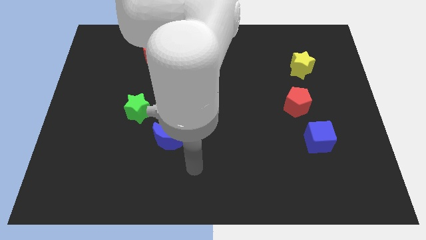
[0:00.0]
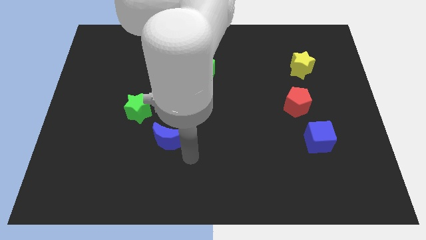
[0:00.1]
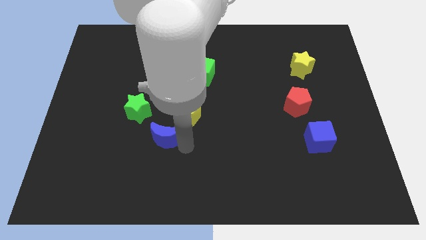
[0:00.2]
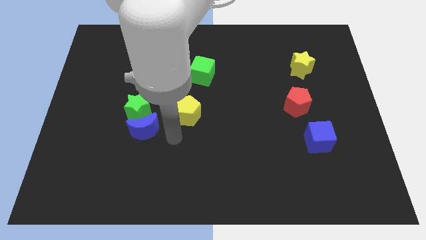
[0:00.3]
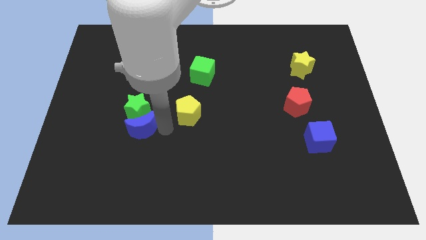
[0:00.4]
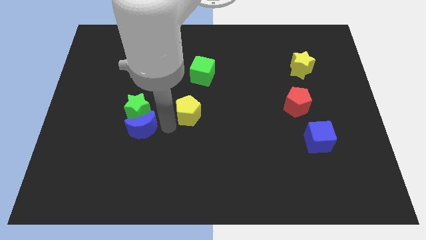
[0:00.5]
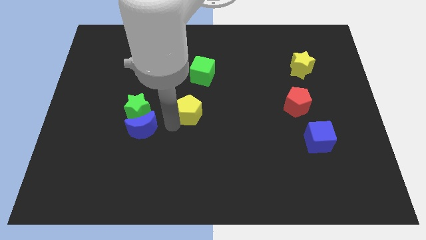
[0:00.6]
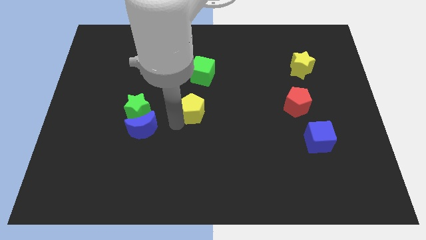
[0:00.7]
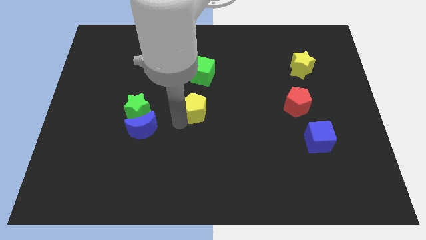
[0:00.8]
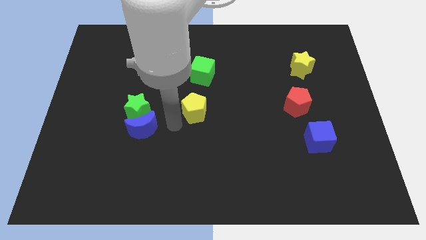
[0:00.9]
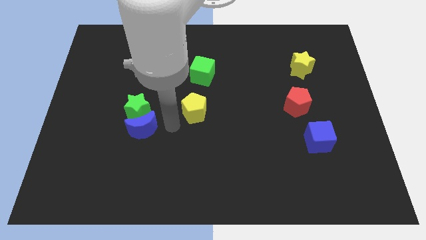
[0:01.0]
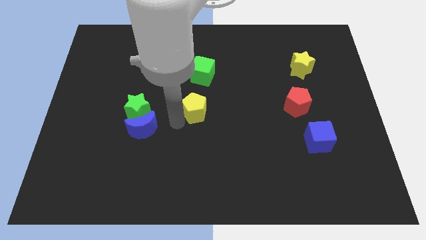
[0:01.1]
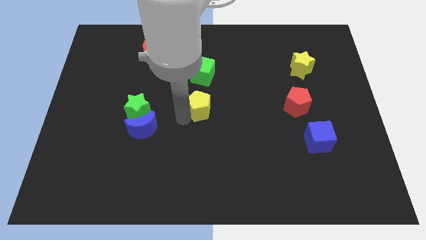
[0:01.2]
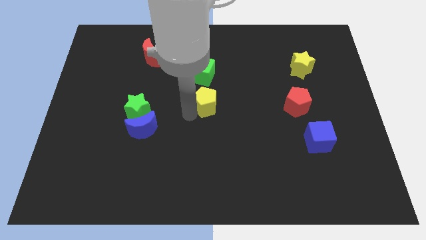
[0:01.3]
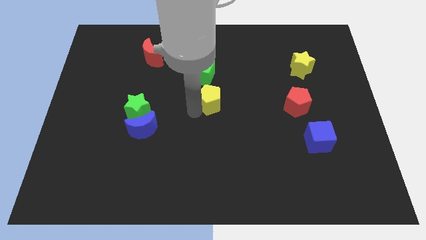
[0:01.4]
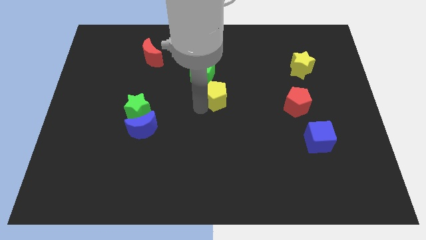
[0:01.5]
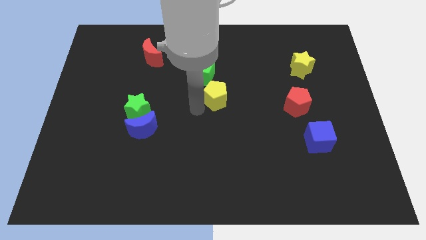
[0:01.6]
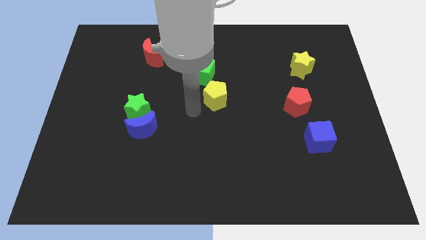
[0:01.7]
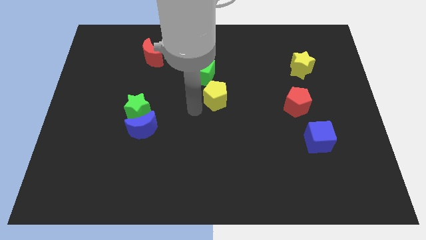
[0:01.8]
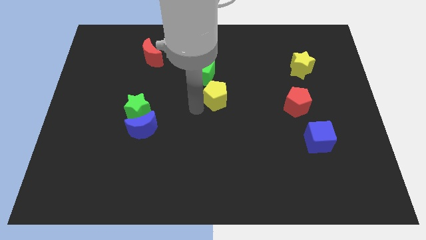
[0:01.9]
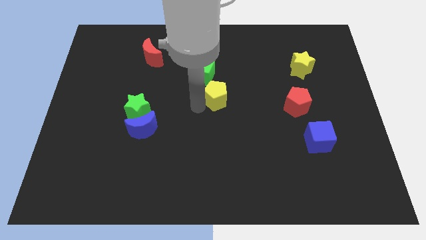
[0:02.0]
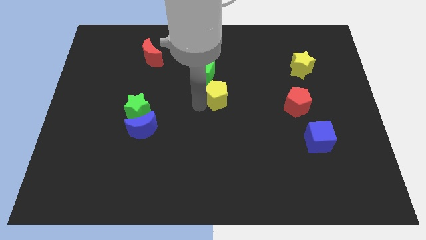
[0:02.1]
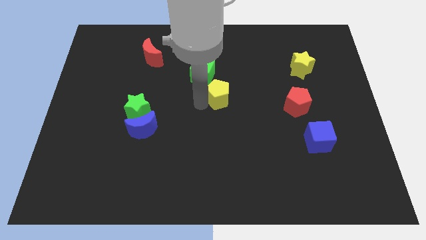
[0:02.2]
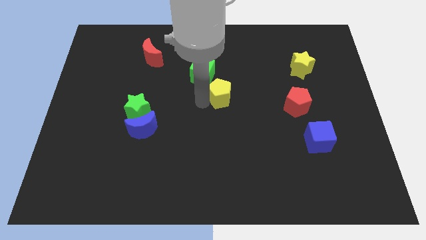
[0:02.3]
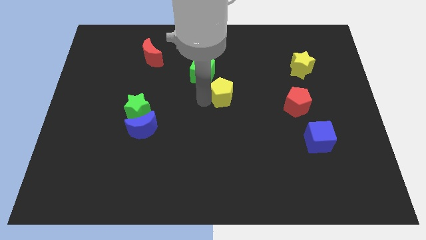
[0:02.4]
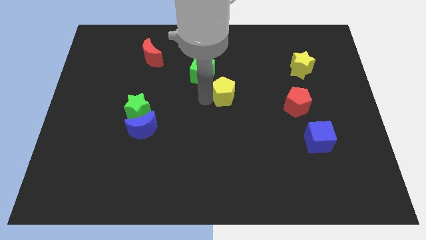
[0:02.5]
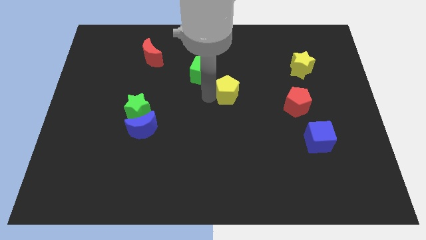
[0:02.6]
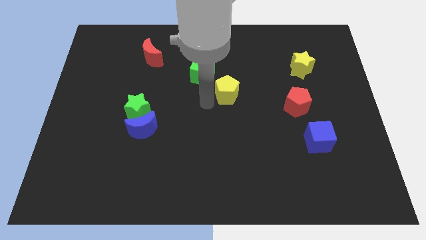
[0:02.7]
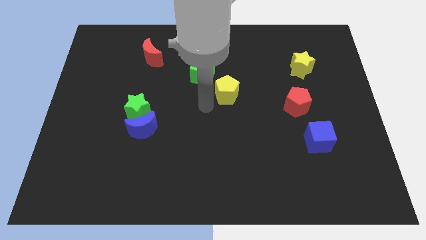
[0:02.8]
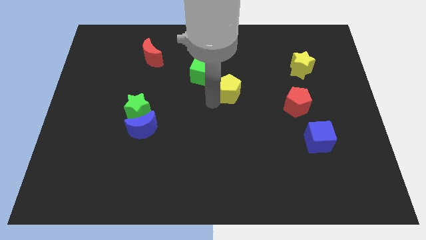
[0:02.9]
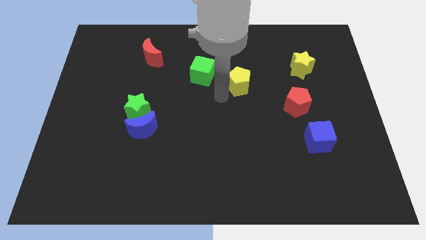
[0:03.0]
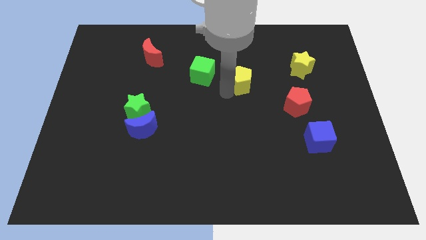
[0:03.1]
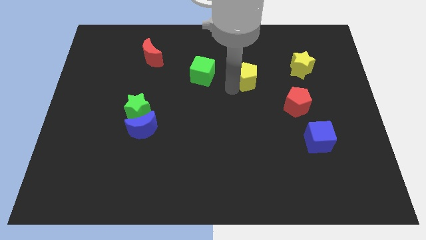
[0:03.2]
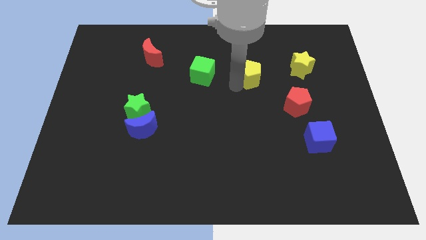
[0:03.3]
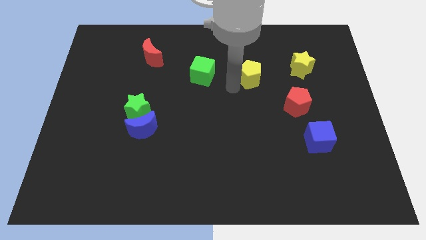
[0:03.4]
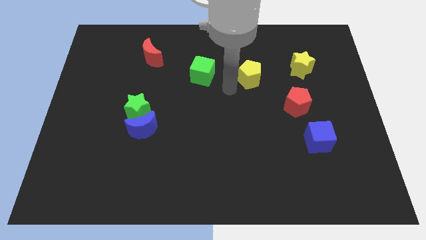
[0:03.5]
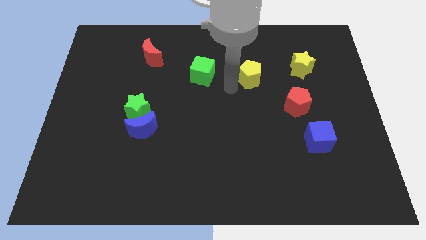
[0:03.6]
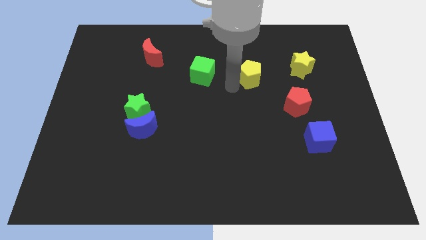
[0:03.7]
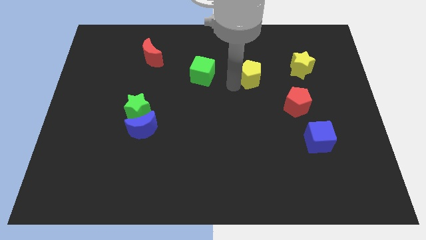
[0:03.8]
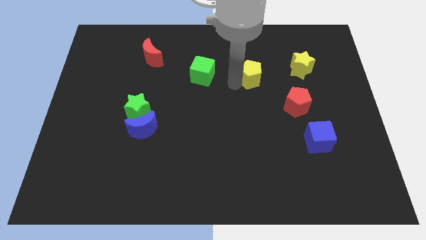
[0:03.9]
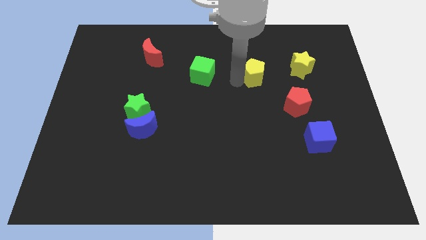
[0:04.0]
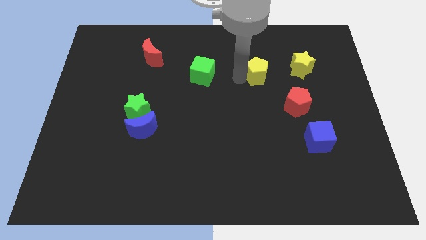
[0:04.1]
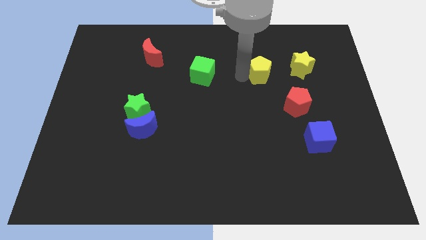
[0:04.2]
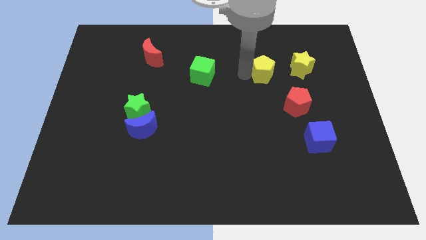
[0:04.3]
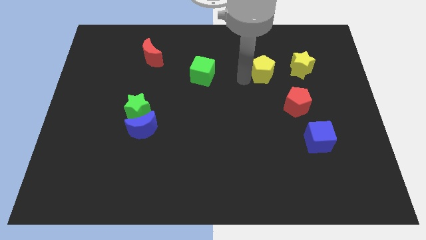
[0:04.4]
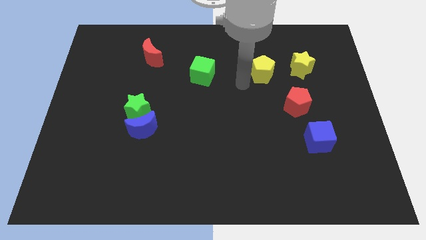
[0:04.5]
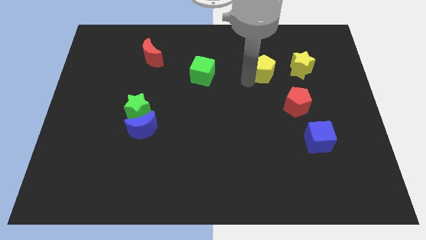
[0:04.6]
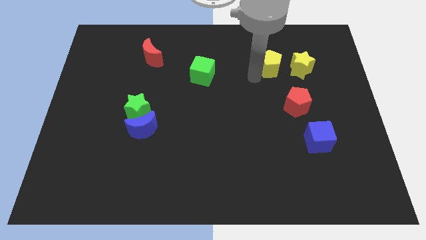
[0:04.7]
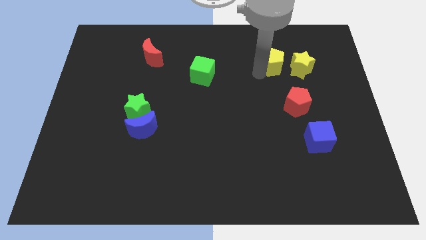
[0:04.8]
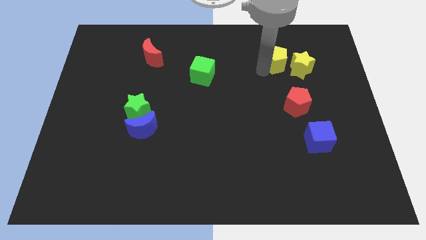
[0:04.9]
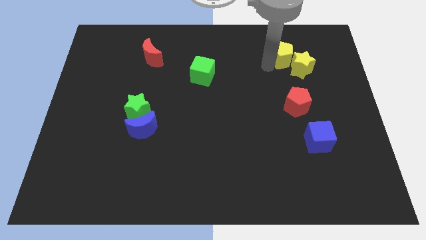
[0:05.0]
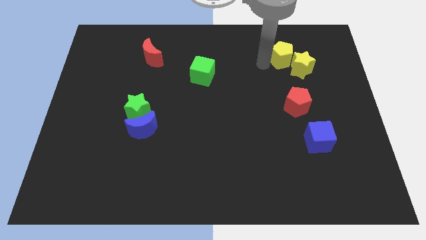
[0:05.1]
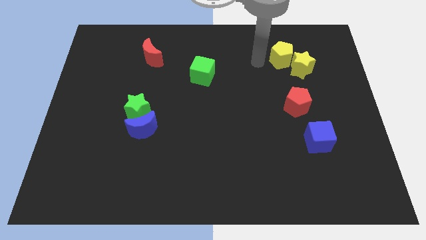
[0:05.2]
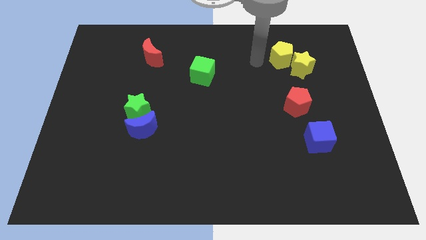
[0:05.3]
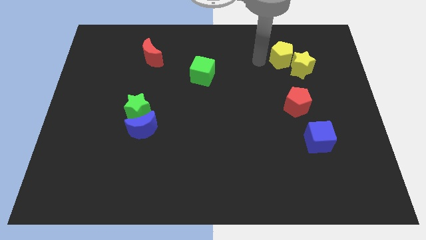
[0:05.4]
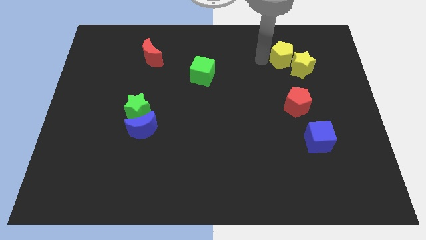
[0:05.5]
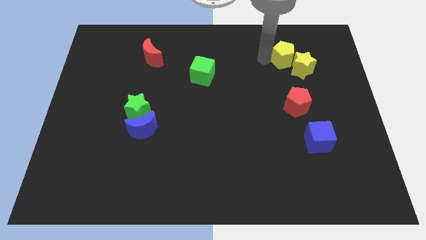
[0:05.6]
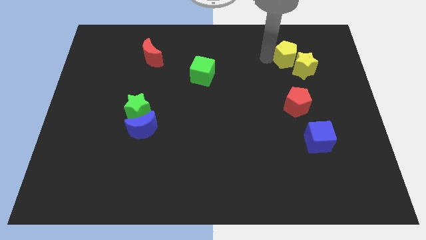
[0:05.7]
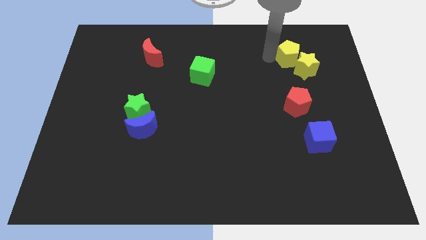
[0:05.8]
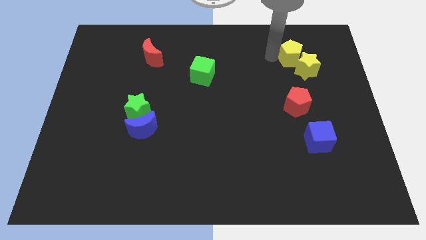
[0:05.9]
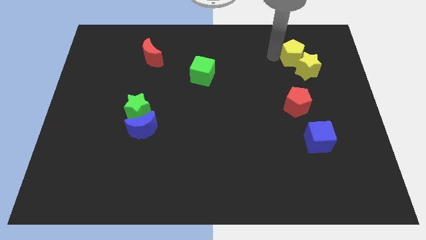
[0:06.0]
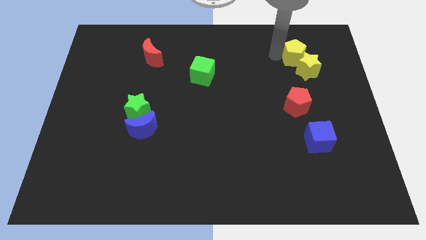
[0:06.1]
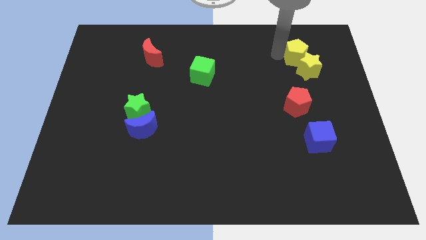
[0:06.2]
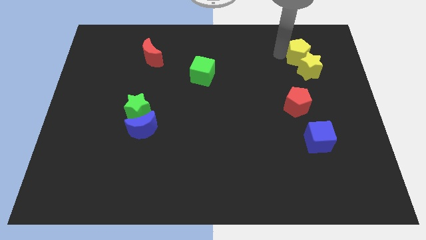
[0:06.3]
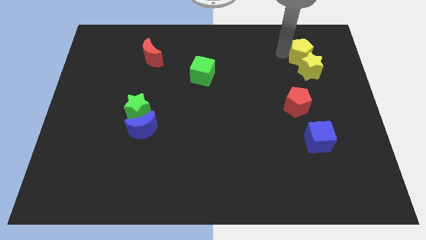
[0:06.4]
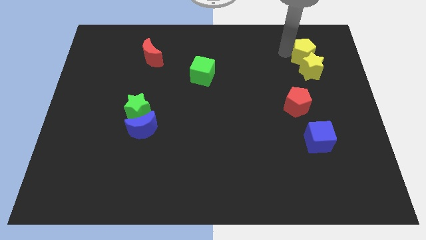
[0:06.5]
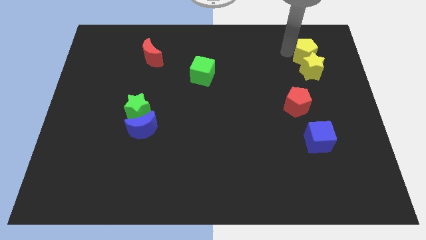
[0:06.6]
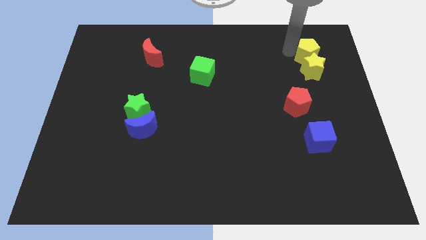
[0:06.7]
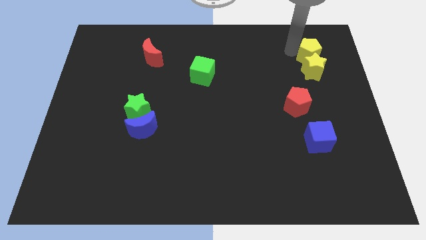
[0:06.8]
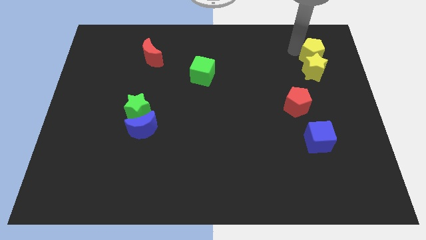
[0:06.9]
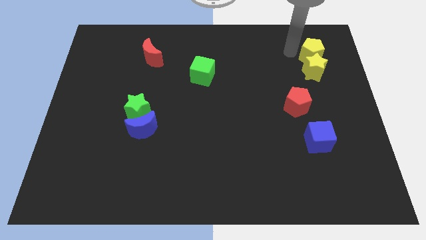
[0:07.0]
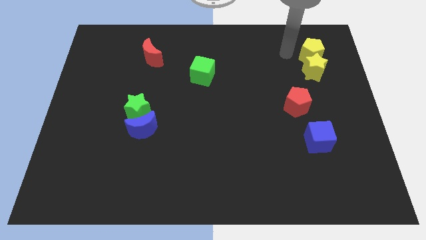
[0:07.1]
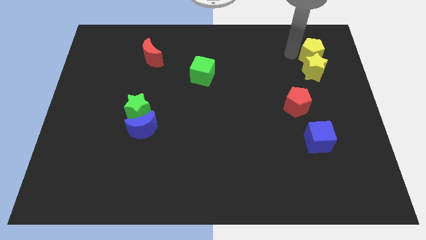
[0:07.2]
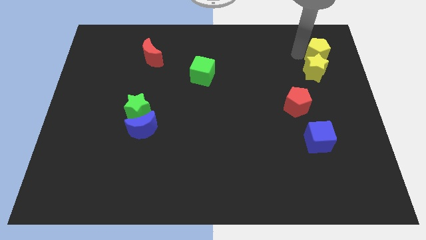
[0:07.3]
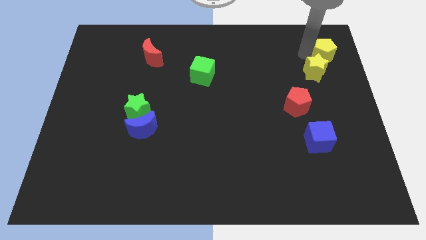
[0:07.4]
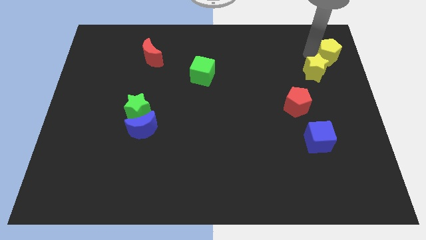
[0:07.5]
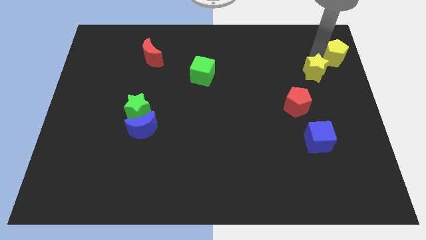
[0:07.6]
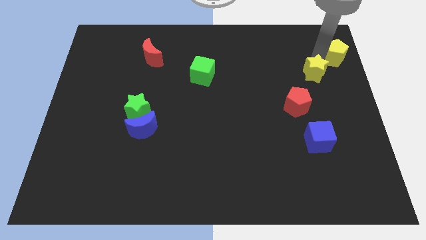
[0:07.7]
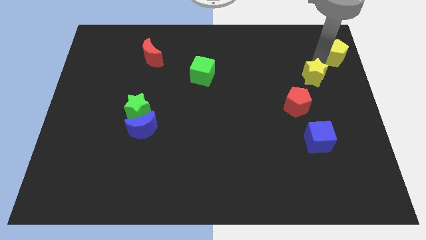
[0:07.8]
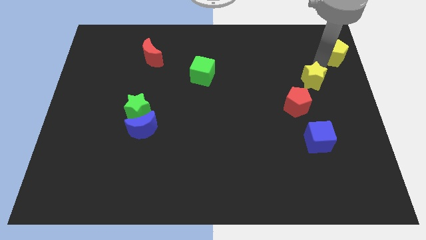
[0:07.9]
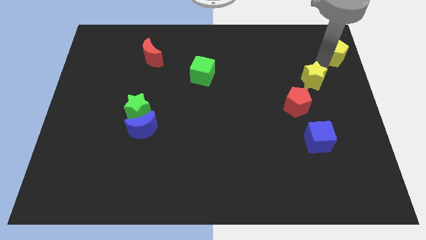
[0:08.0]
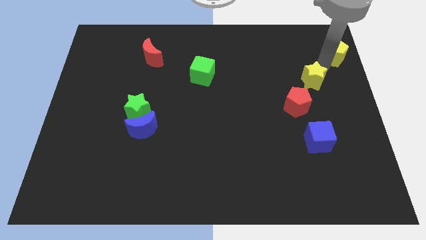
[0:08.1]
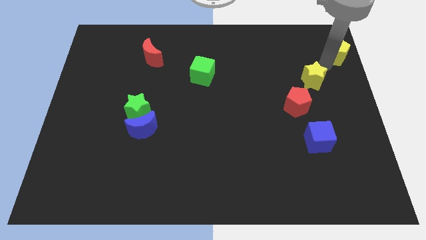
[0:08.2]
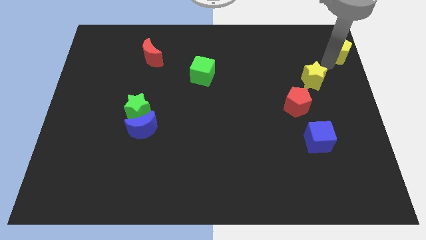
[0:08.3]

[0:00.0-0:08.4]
push the yellow pentagon to the top right of the board
